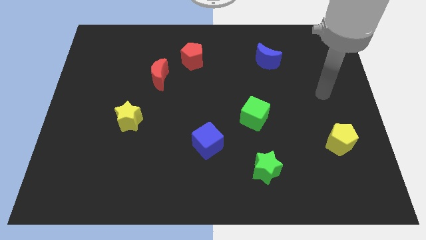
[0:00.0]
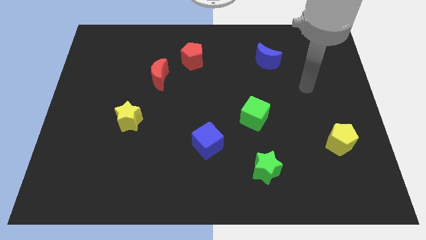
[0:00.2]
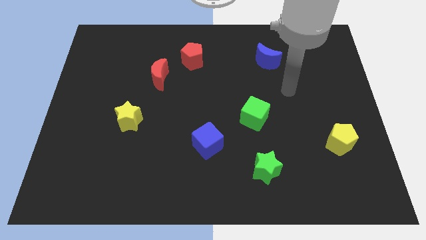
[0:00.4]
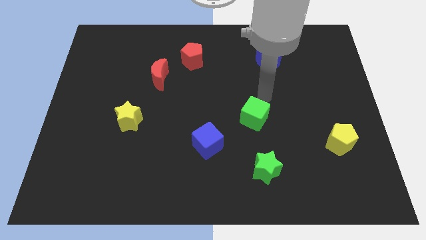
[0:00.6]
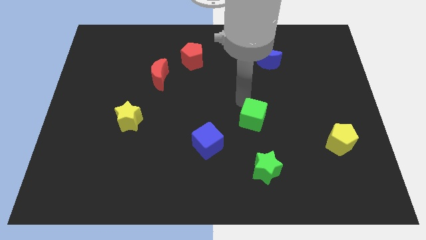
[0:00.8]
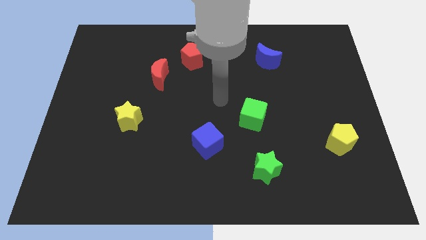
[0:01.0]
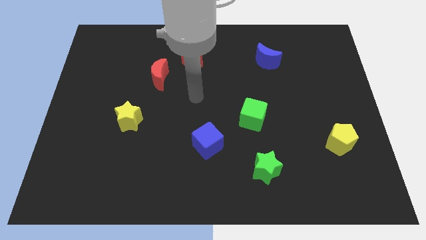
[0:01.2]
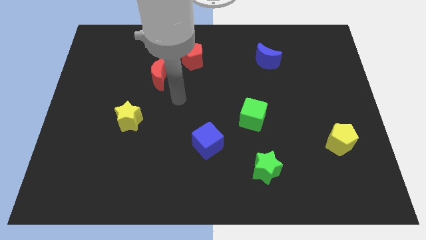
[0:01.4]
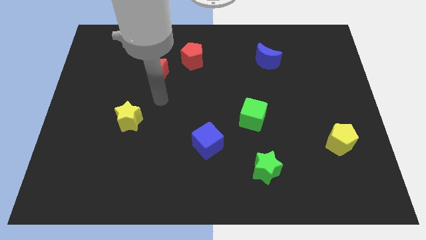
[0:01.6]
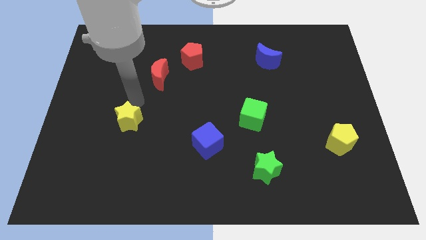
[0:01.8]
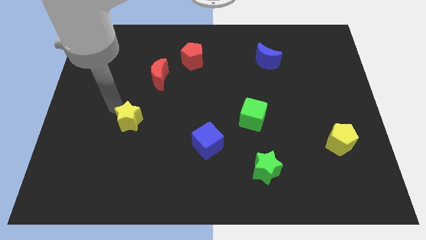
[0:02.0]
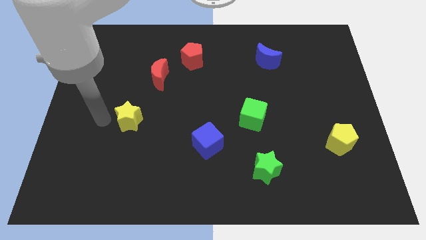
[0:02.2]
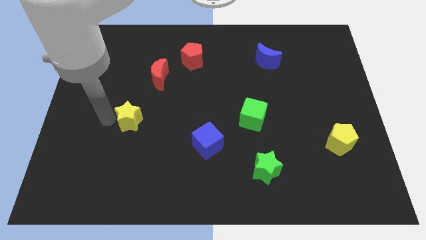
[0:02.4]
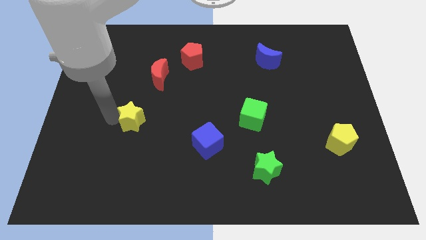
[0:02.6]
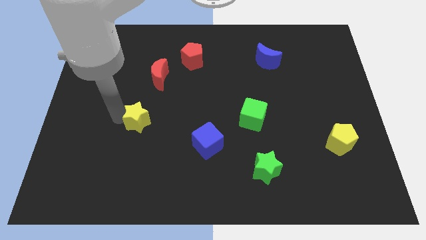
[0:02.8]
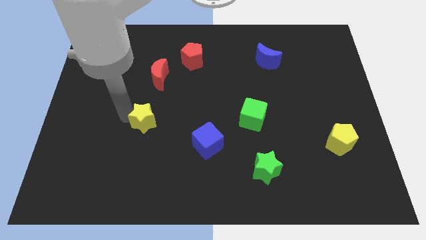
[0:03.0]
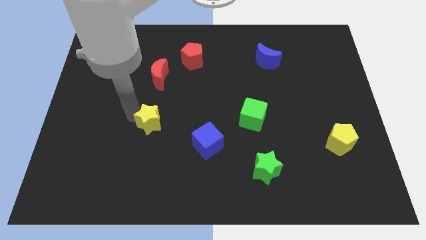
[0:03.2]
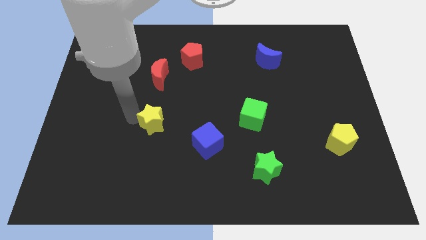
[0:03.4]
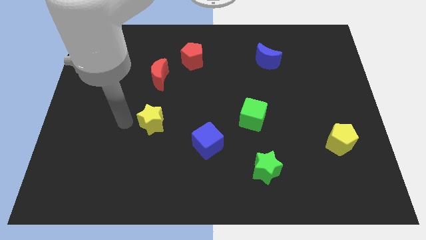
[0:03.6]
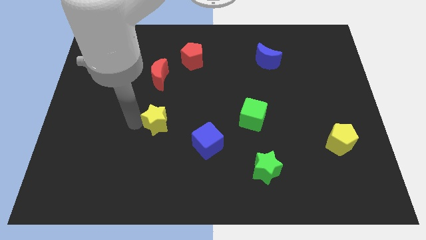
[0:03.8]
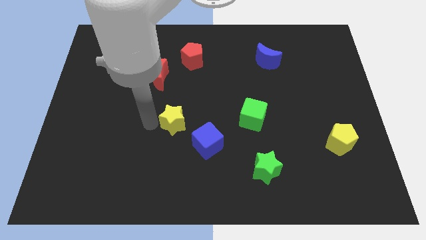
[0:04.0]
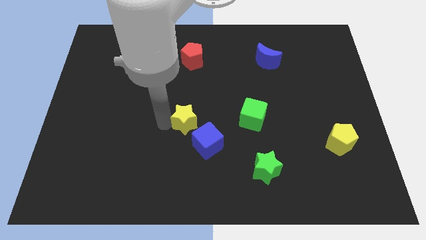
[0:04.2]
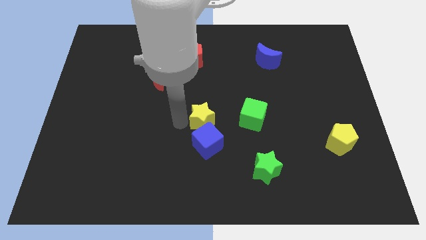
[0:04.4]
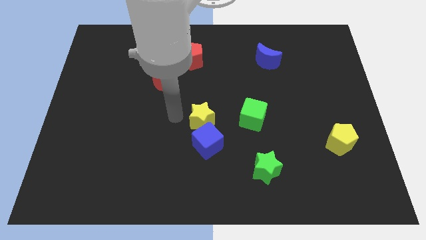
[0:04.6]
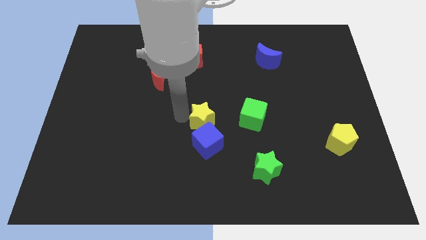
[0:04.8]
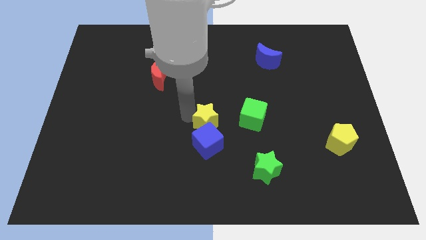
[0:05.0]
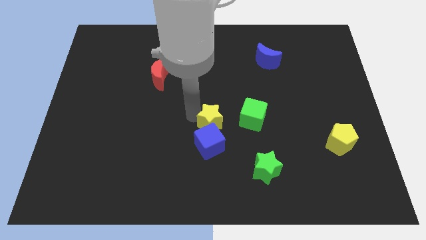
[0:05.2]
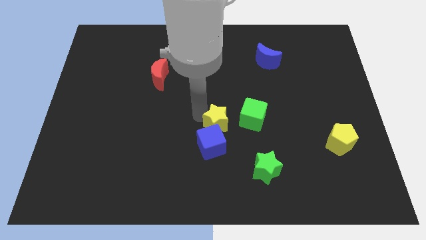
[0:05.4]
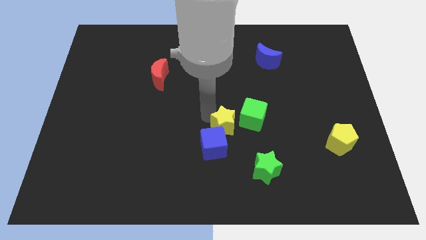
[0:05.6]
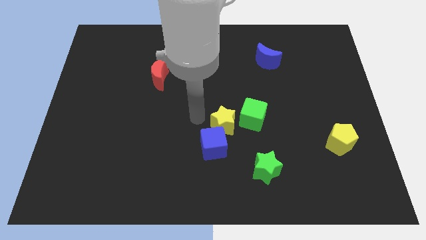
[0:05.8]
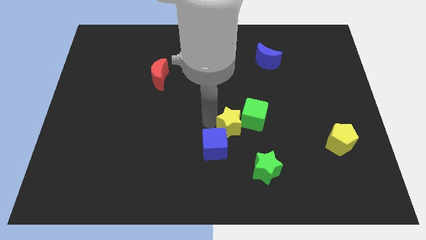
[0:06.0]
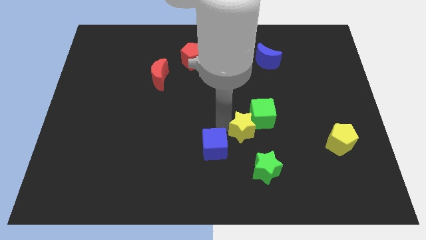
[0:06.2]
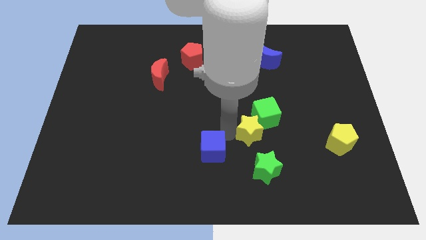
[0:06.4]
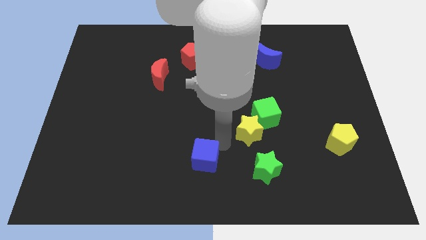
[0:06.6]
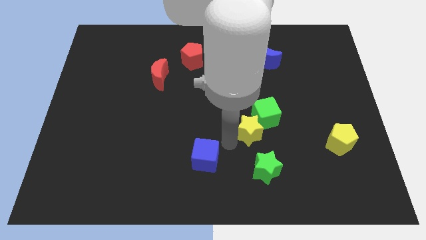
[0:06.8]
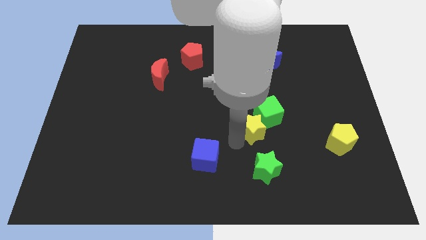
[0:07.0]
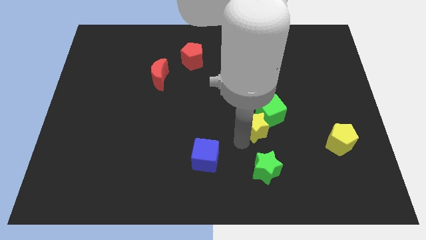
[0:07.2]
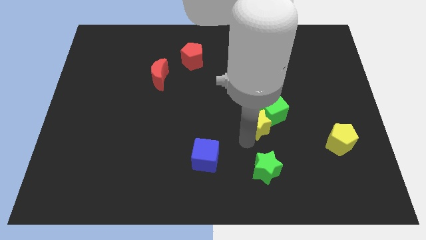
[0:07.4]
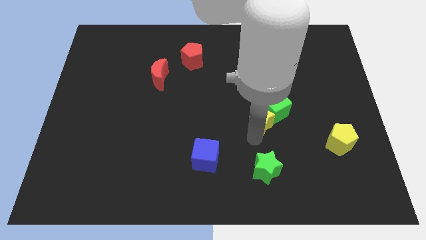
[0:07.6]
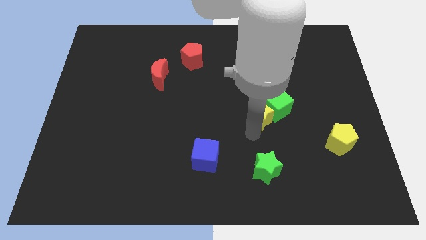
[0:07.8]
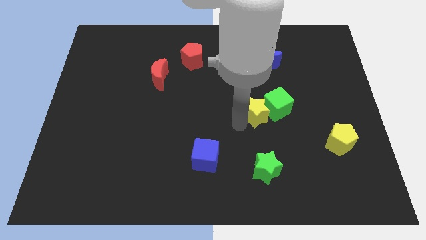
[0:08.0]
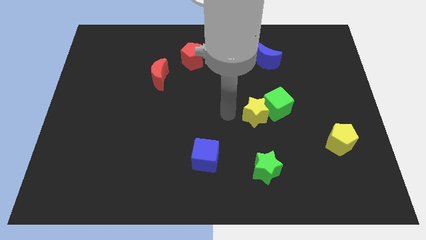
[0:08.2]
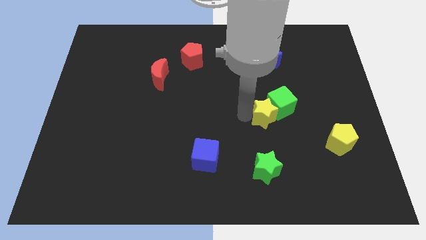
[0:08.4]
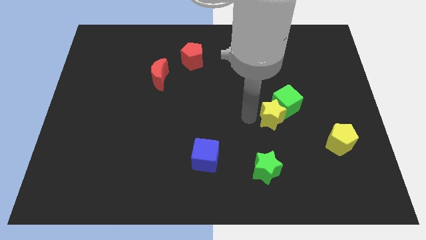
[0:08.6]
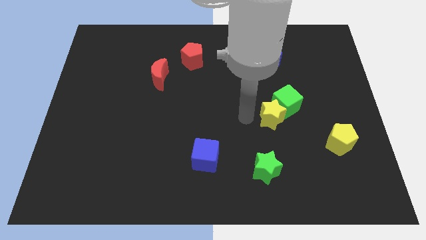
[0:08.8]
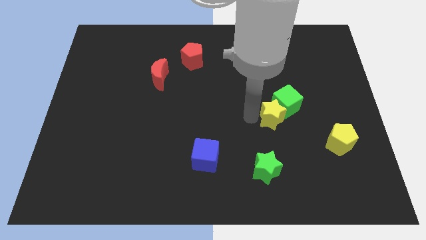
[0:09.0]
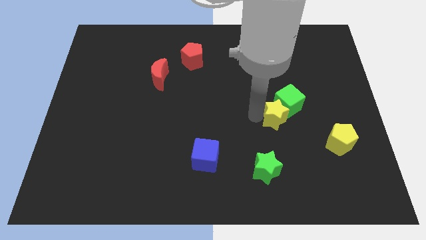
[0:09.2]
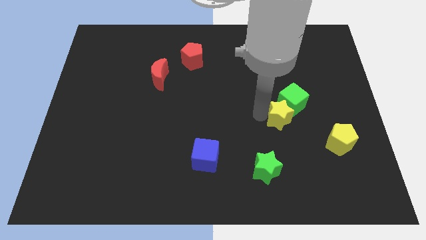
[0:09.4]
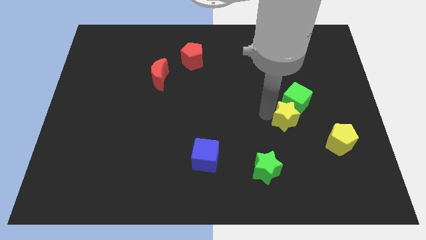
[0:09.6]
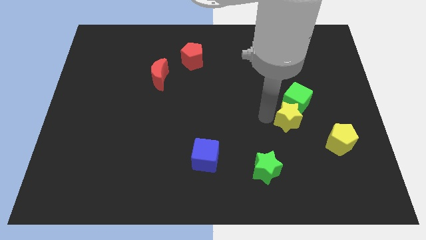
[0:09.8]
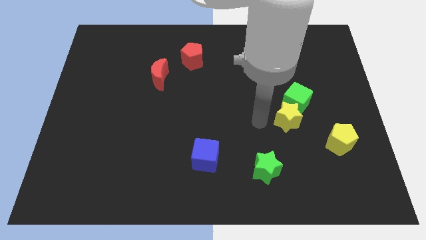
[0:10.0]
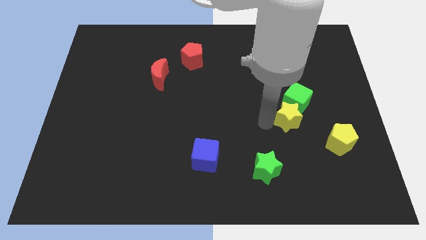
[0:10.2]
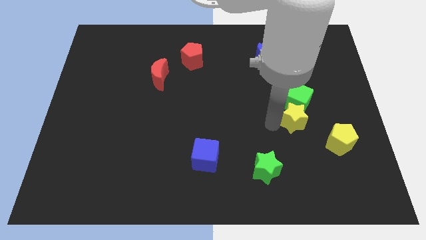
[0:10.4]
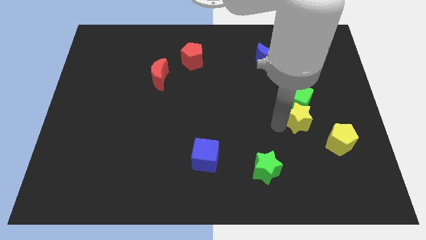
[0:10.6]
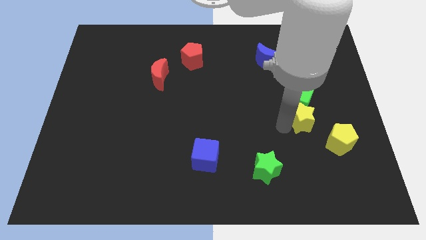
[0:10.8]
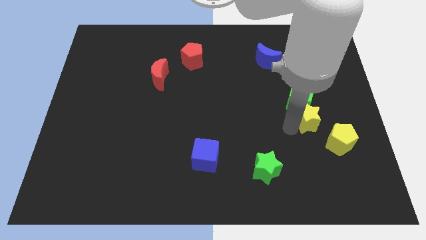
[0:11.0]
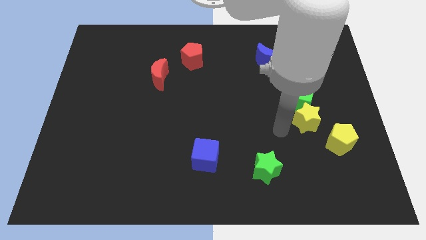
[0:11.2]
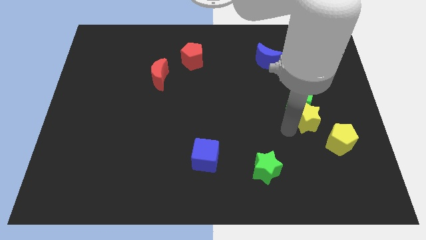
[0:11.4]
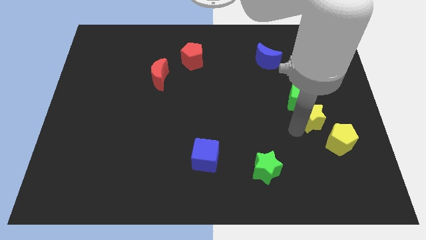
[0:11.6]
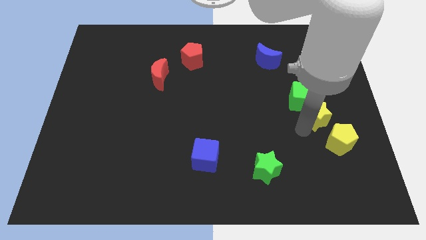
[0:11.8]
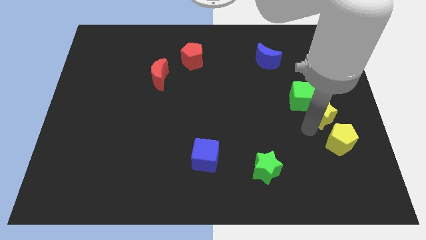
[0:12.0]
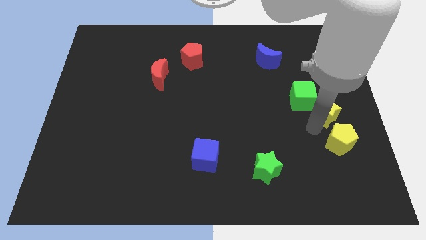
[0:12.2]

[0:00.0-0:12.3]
put the yellow star to the right side

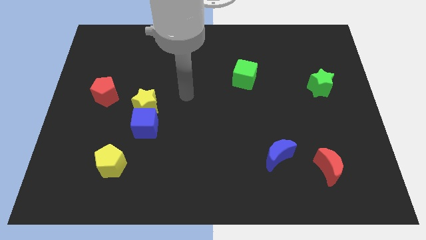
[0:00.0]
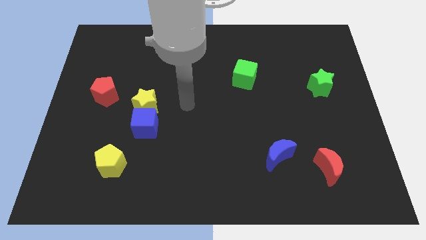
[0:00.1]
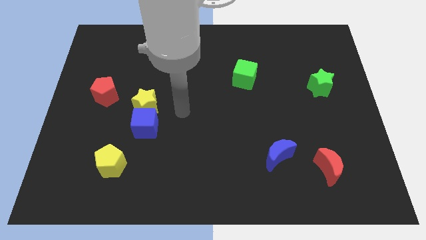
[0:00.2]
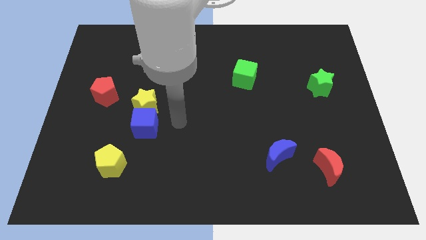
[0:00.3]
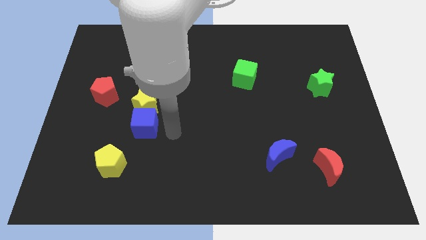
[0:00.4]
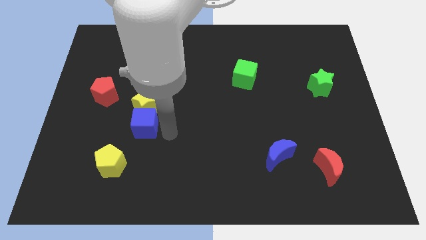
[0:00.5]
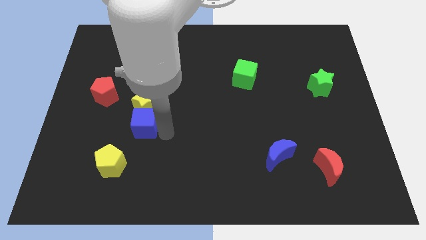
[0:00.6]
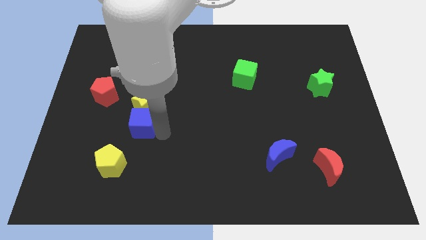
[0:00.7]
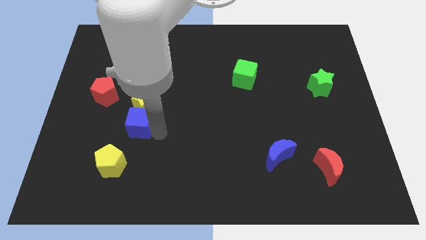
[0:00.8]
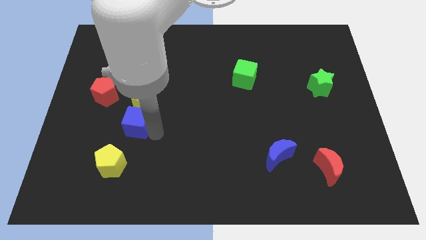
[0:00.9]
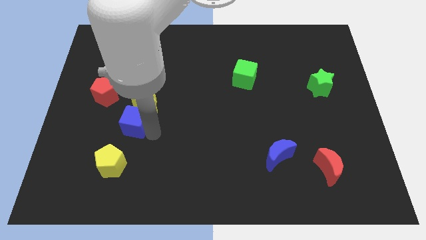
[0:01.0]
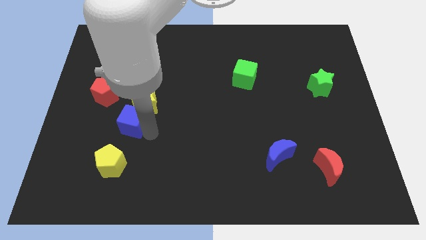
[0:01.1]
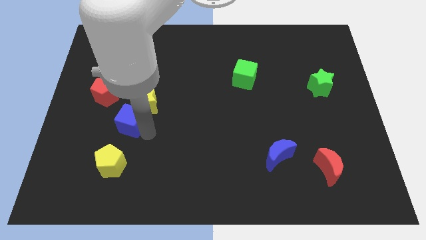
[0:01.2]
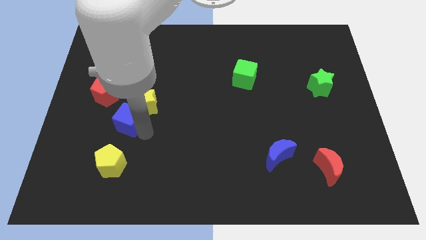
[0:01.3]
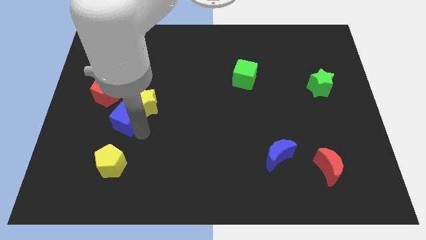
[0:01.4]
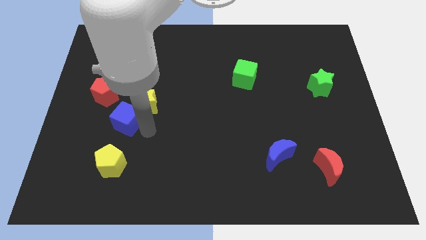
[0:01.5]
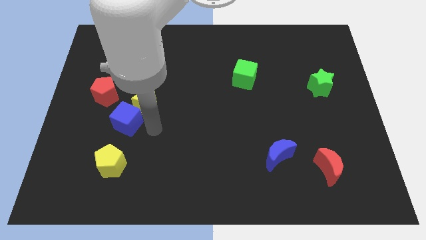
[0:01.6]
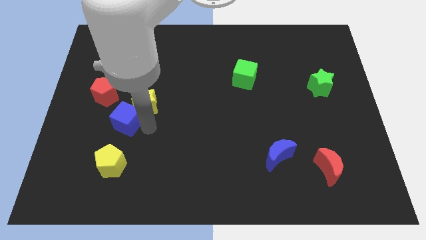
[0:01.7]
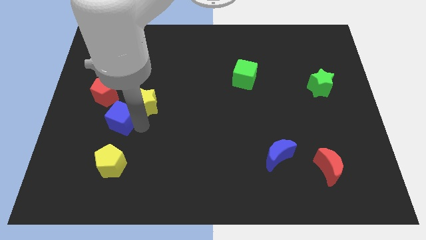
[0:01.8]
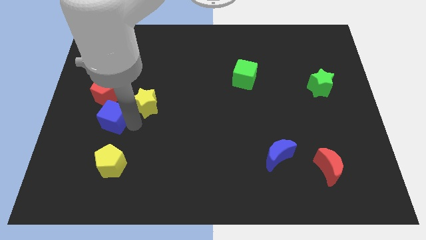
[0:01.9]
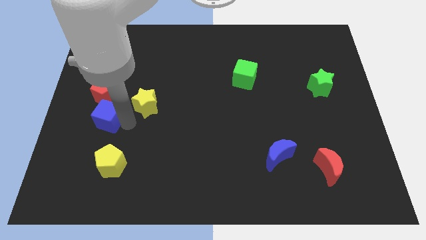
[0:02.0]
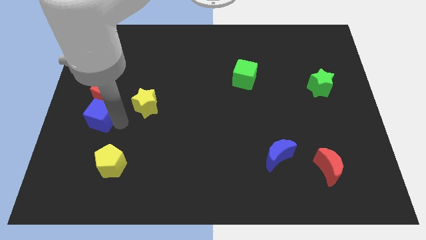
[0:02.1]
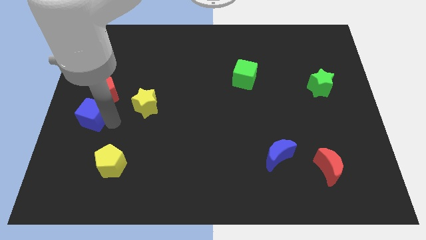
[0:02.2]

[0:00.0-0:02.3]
push the blue cube to the left side
